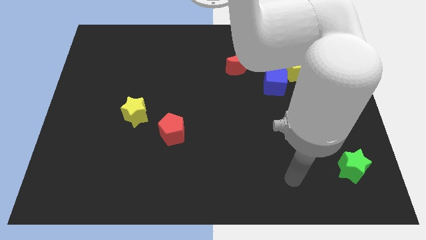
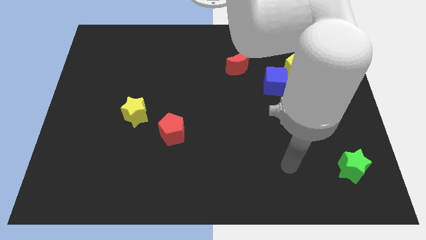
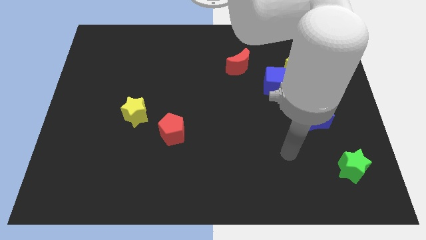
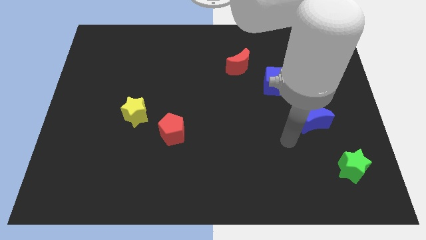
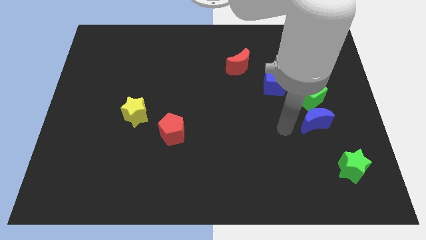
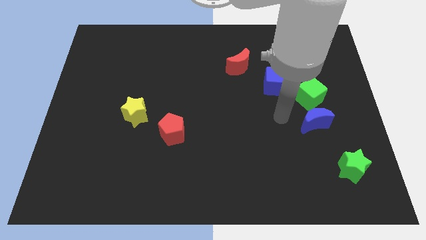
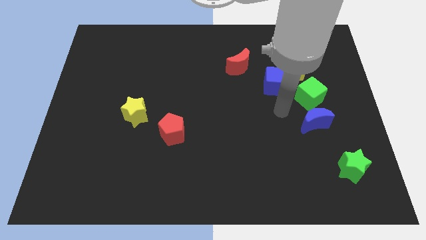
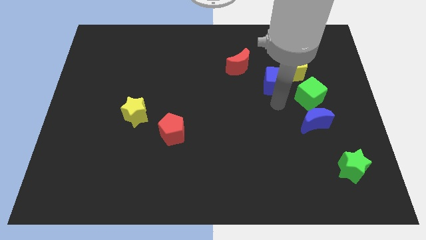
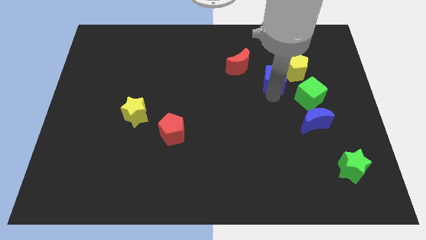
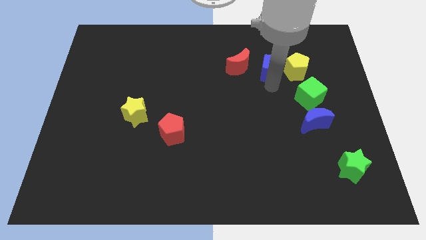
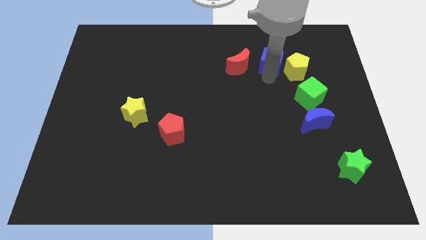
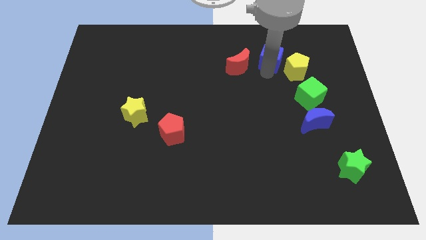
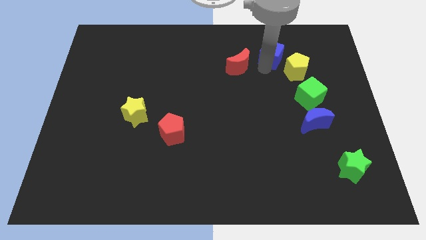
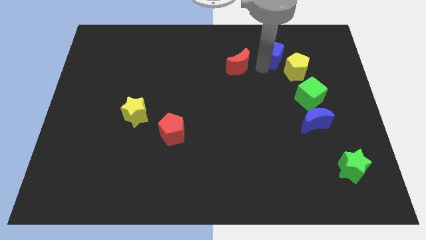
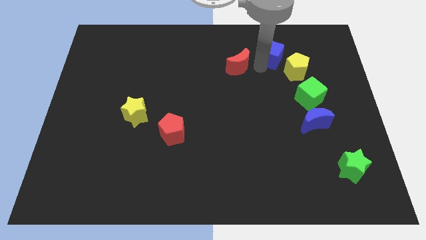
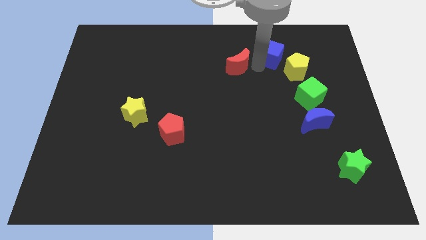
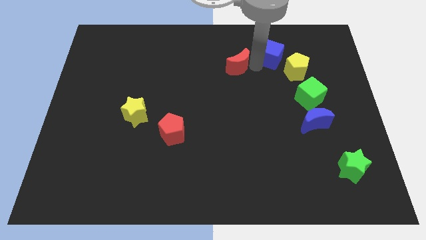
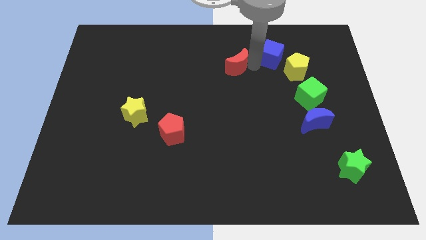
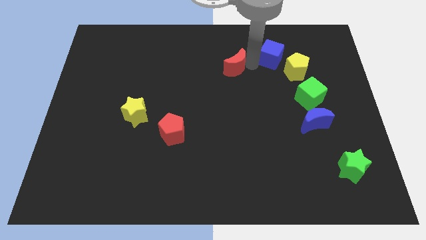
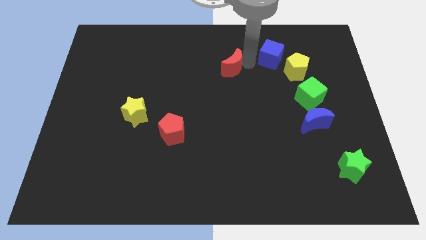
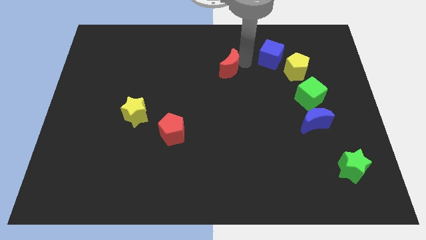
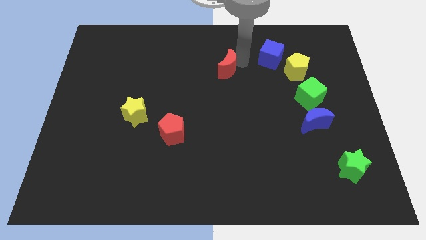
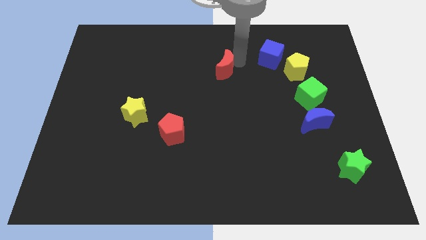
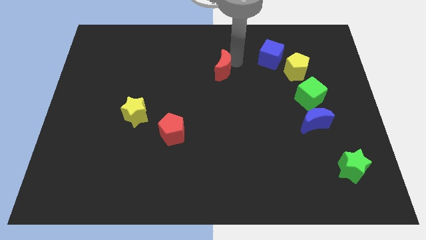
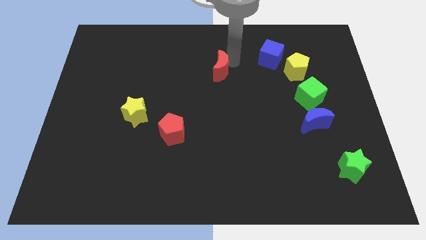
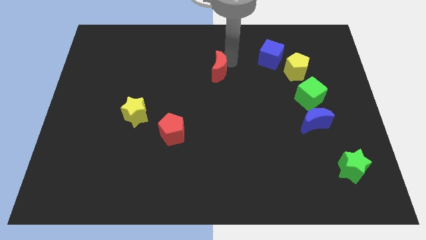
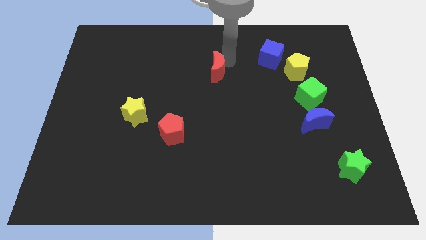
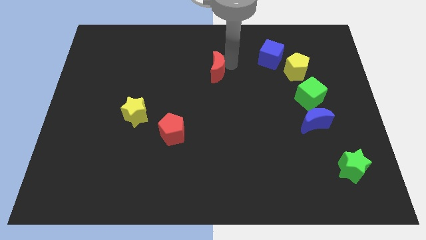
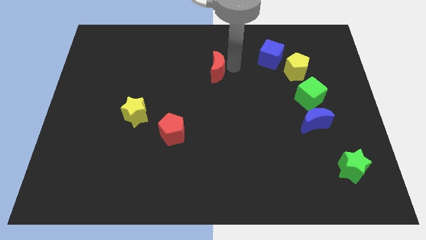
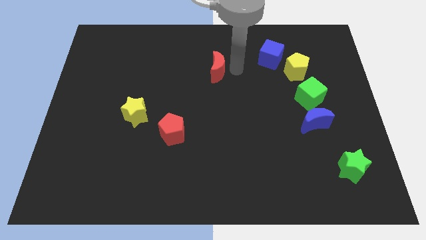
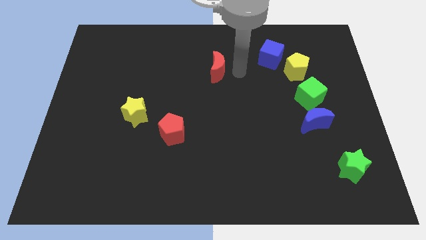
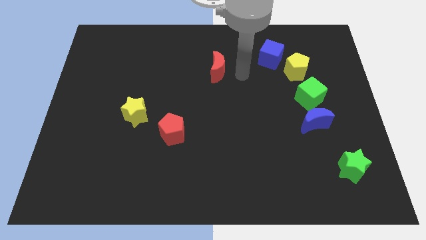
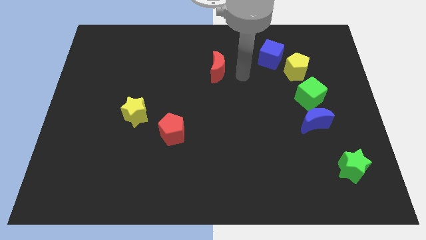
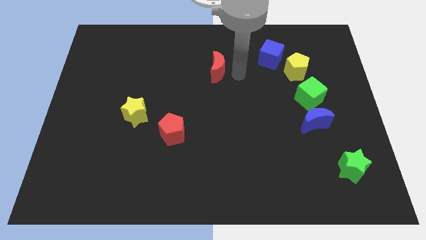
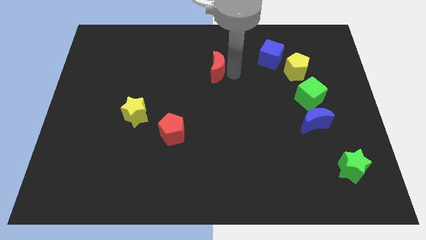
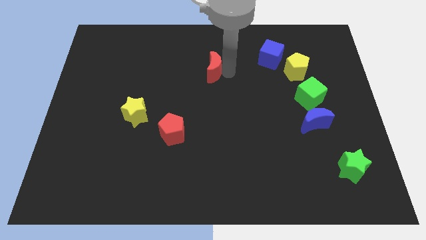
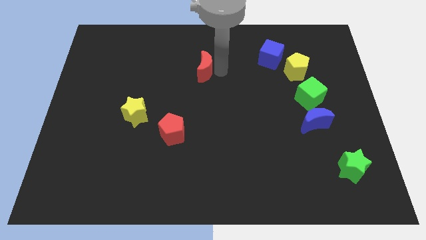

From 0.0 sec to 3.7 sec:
push the red moon somewhat left

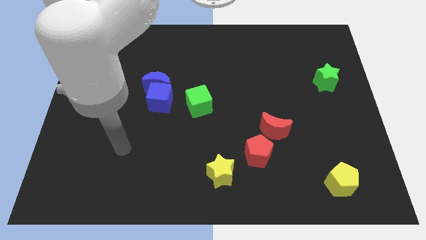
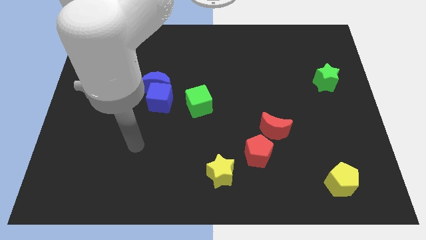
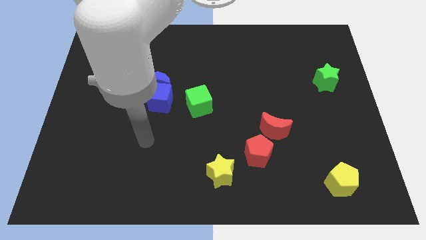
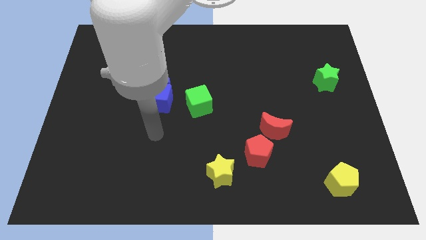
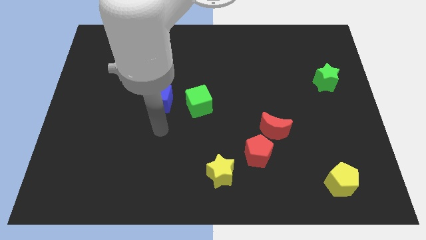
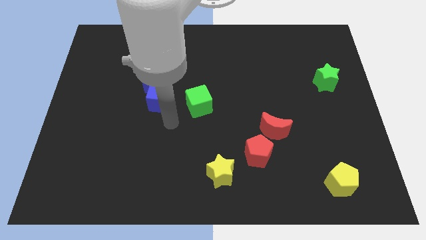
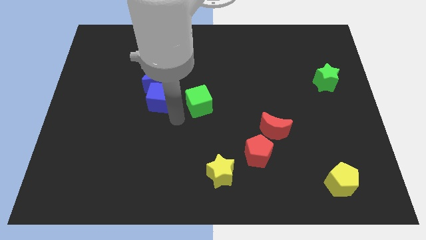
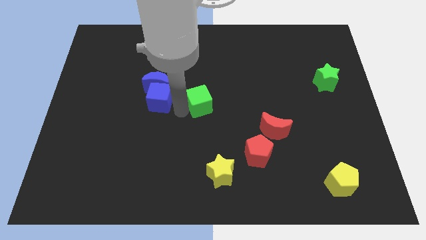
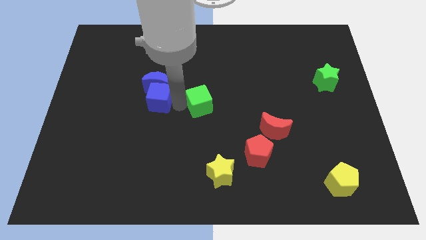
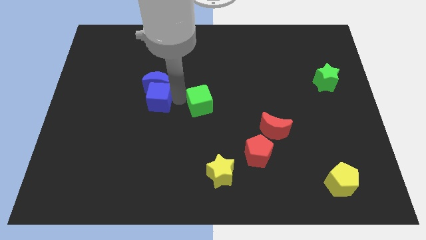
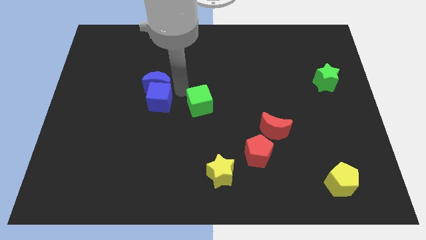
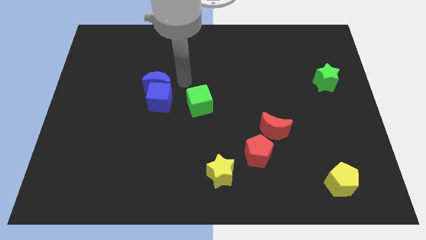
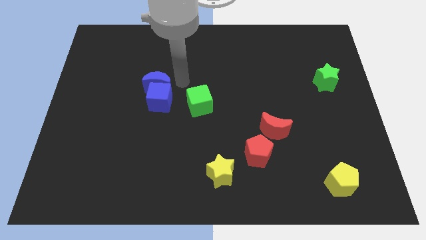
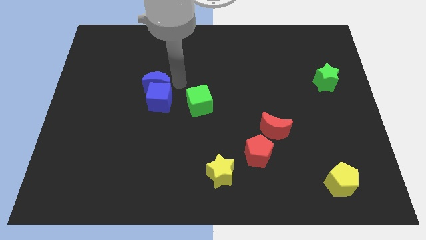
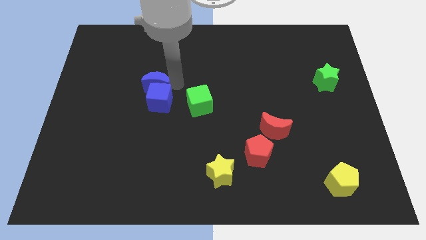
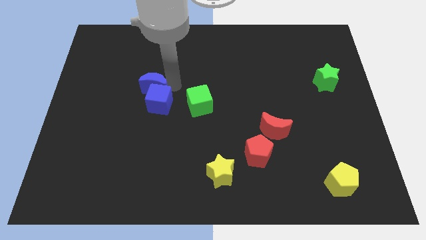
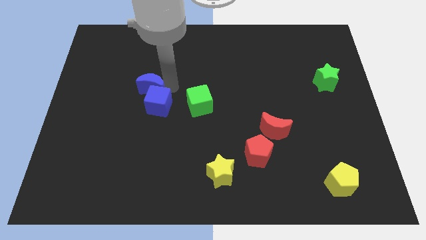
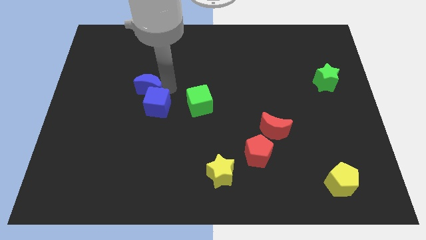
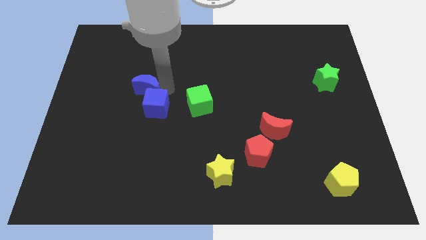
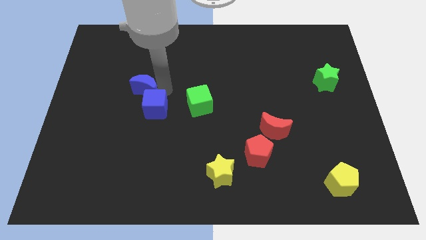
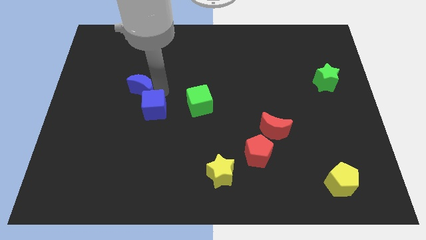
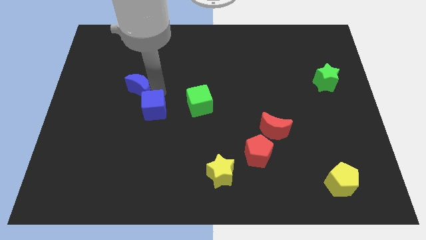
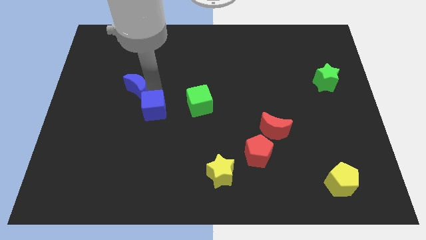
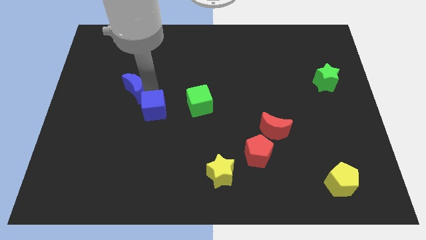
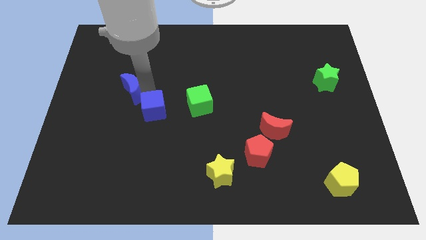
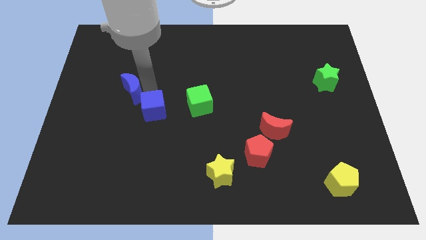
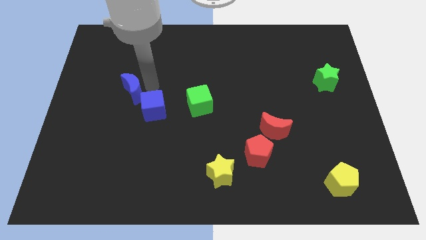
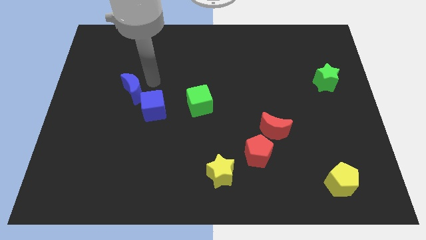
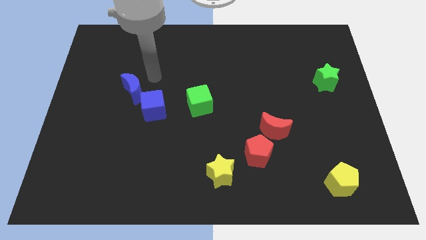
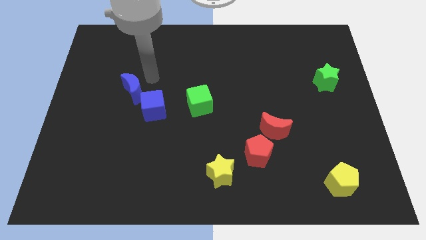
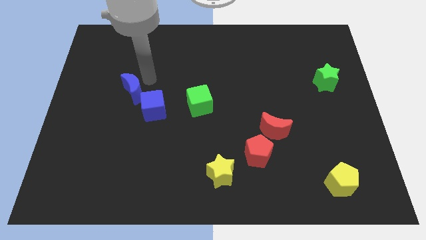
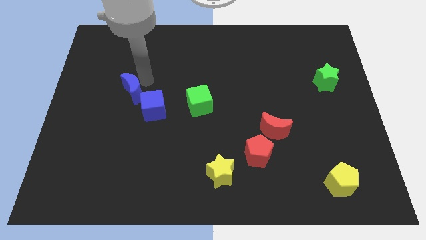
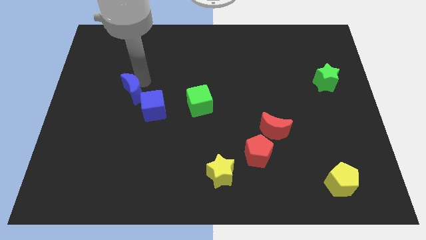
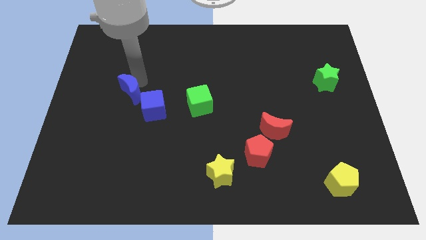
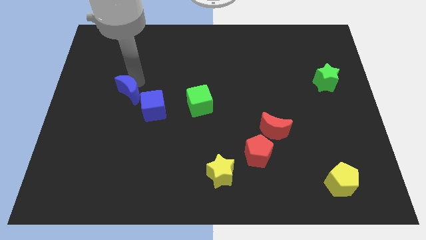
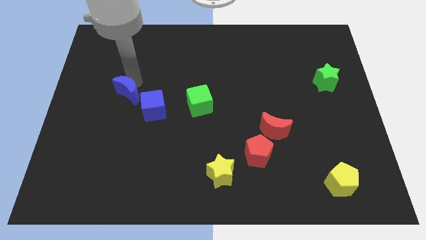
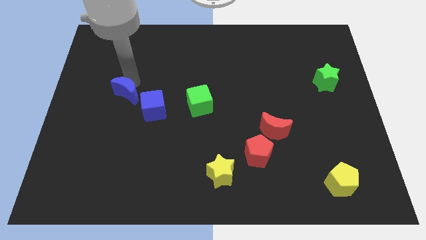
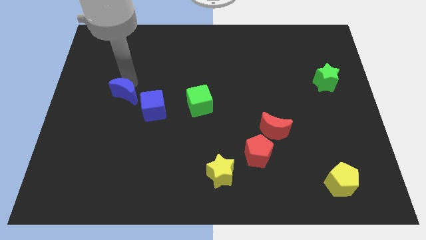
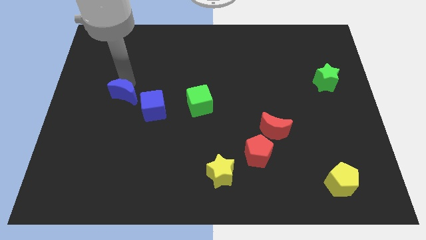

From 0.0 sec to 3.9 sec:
slightly move the blue moon downwards and to the left diagonally

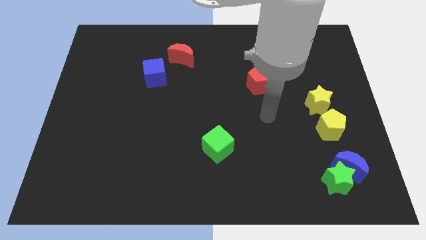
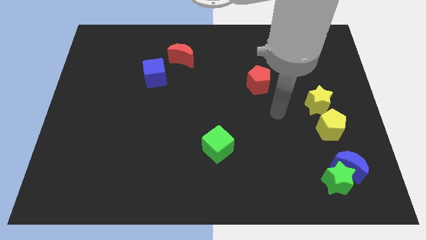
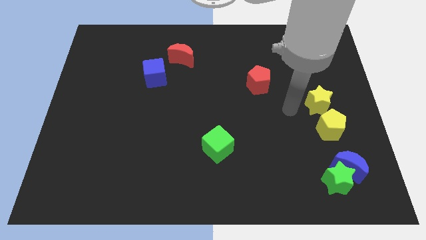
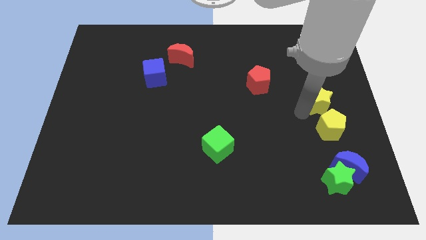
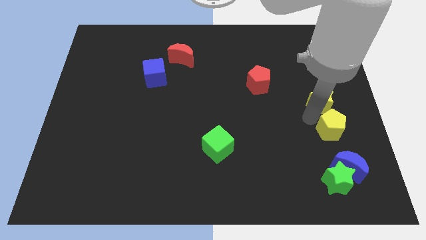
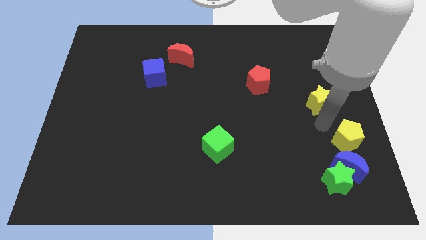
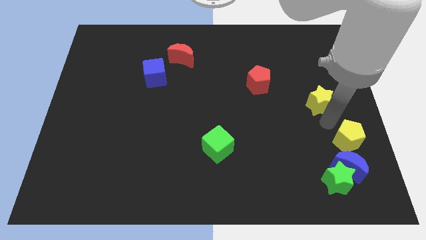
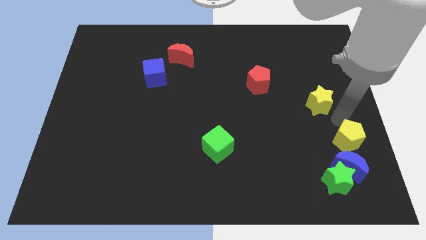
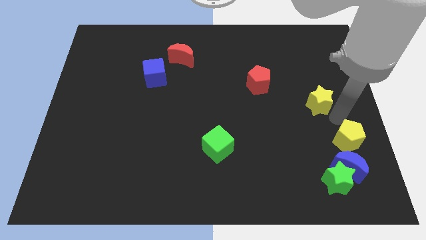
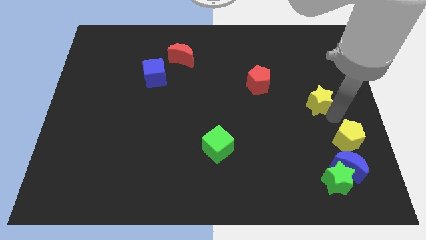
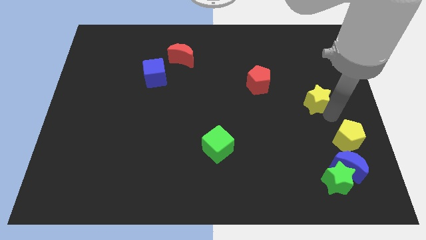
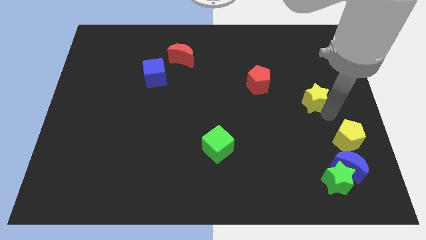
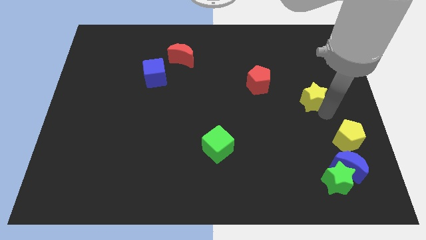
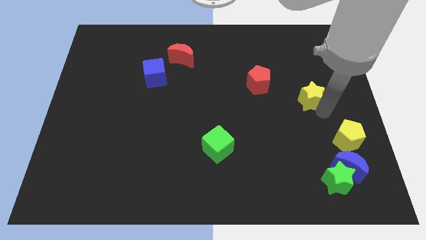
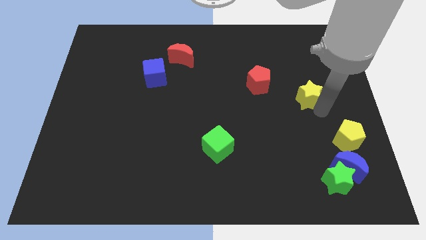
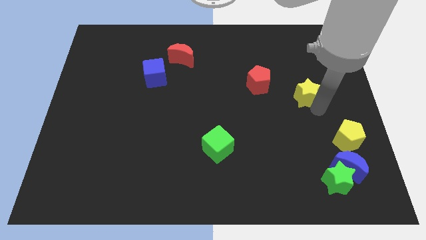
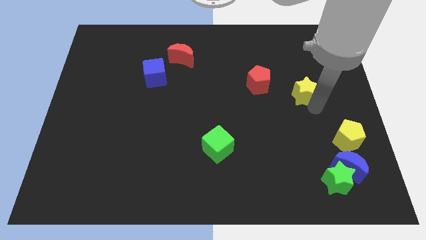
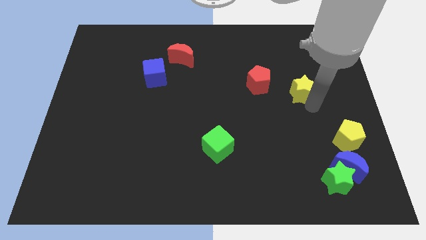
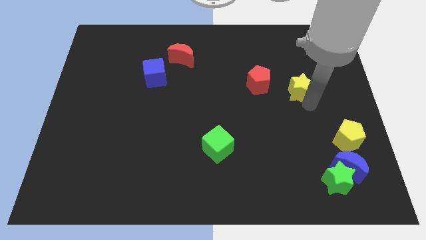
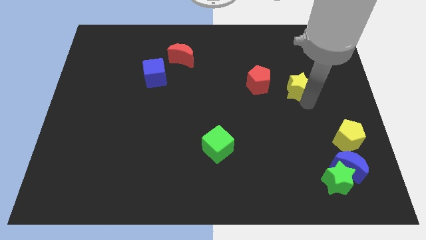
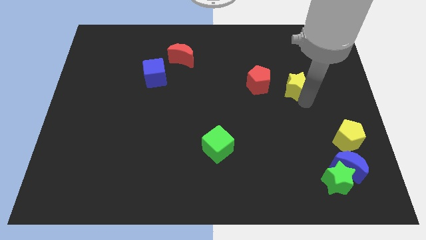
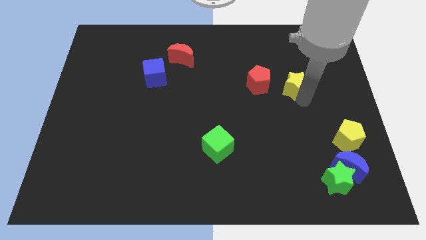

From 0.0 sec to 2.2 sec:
push the yellow star up and then to the left somewhat
